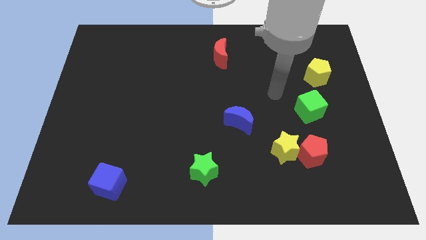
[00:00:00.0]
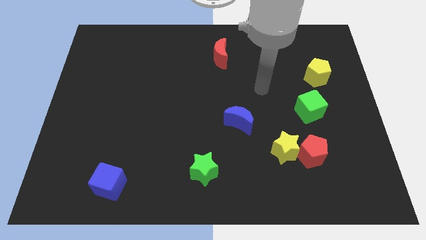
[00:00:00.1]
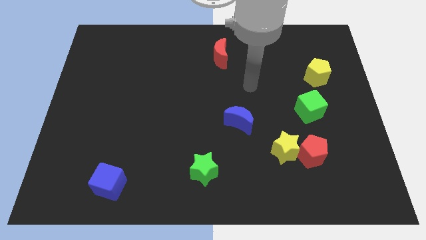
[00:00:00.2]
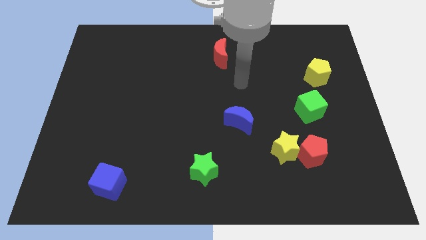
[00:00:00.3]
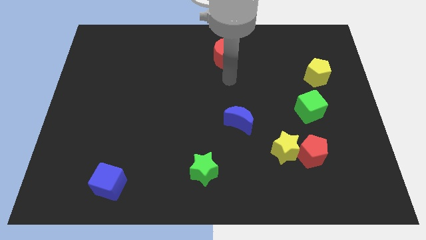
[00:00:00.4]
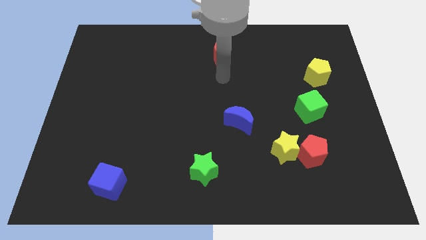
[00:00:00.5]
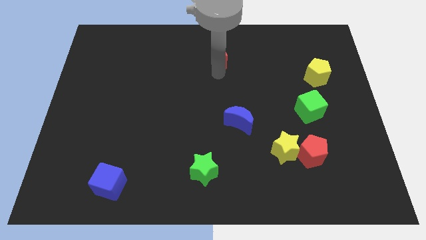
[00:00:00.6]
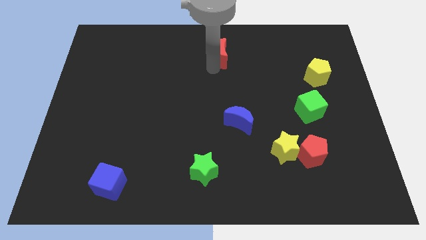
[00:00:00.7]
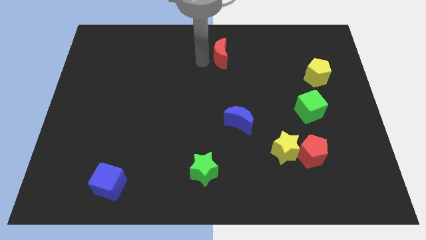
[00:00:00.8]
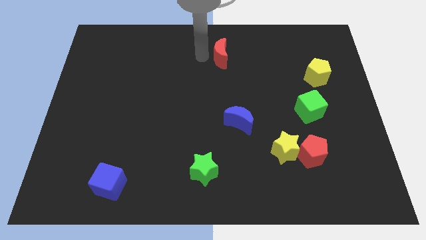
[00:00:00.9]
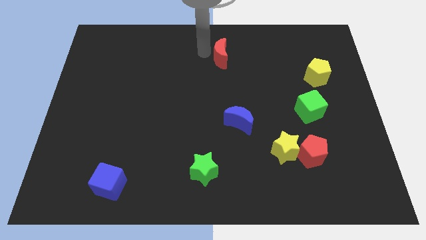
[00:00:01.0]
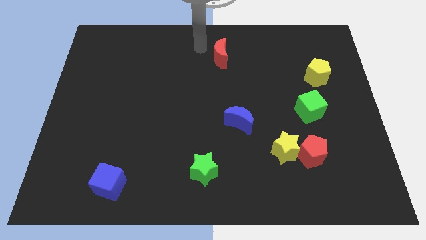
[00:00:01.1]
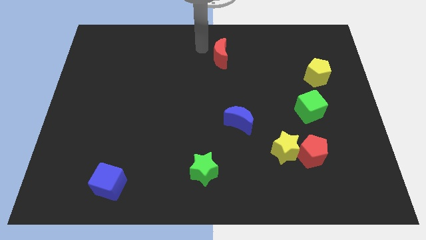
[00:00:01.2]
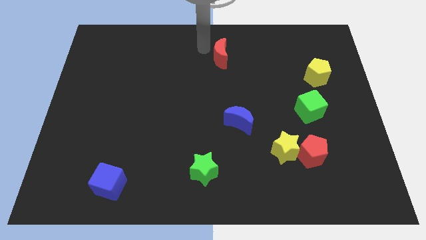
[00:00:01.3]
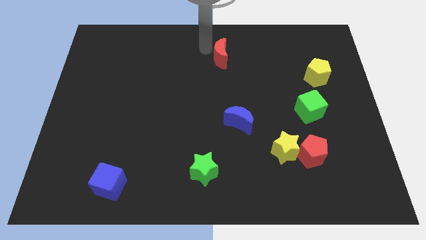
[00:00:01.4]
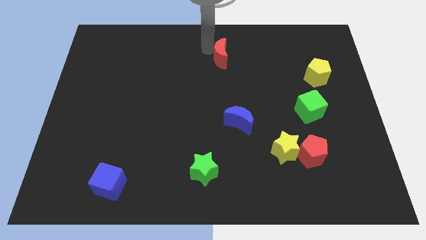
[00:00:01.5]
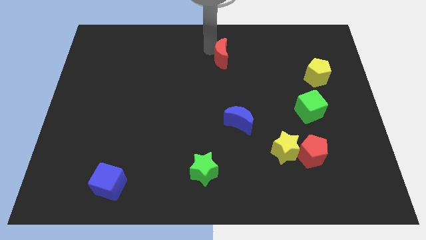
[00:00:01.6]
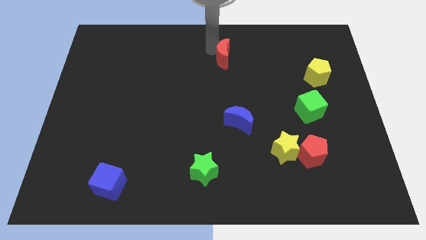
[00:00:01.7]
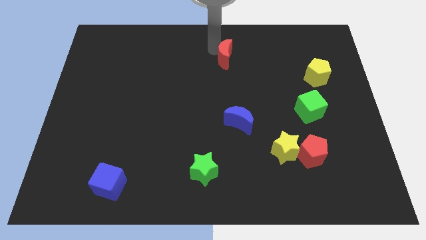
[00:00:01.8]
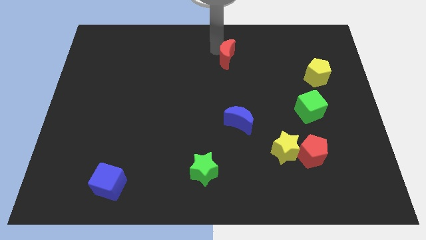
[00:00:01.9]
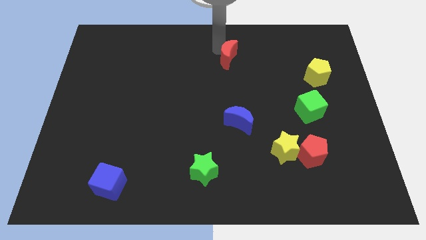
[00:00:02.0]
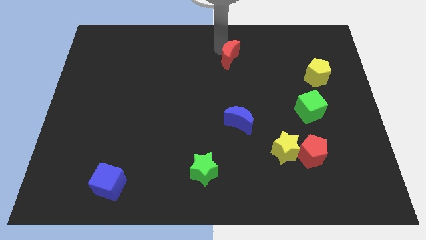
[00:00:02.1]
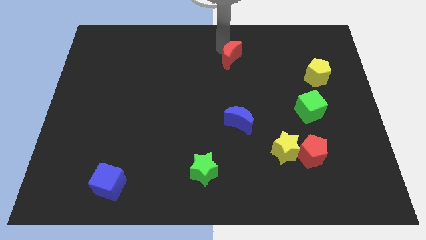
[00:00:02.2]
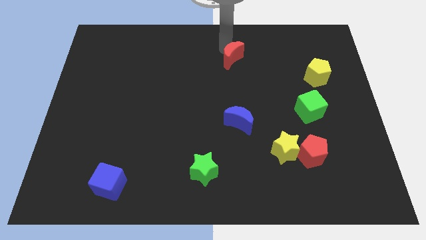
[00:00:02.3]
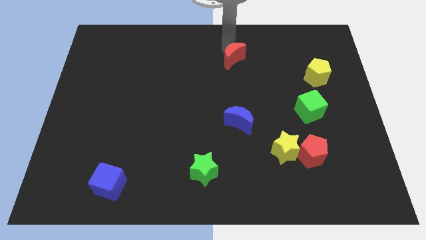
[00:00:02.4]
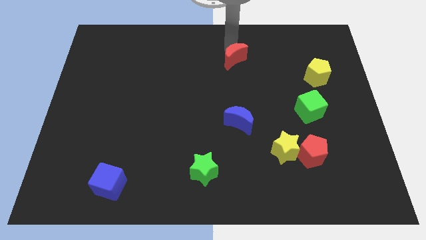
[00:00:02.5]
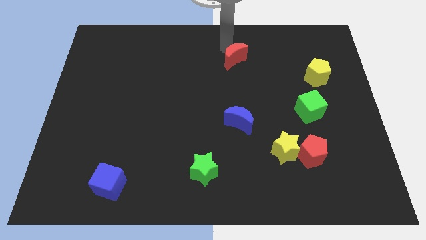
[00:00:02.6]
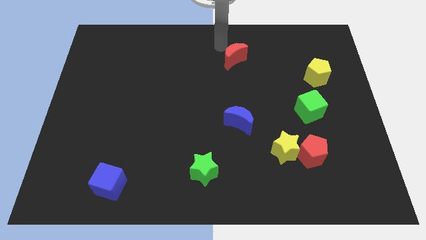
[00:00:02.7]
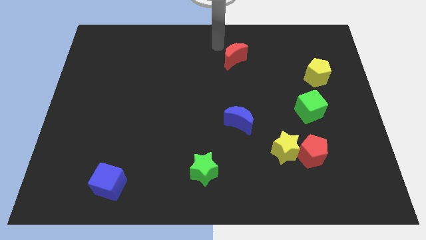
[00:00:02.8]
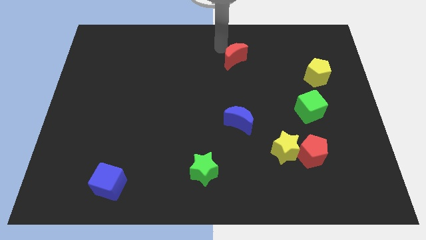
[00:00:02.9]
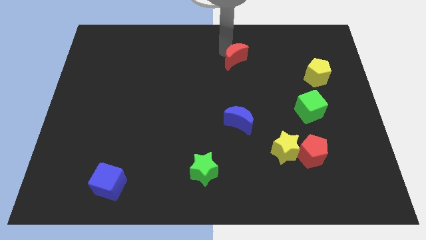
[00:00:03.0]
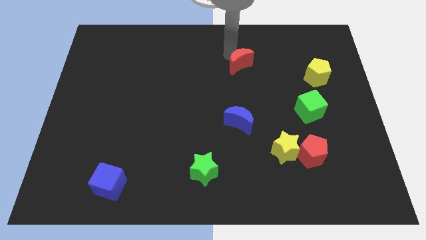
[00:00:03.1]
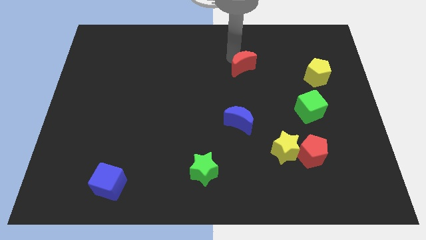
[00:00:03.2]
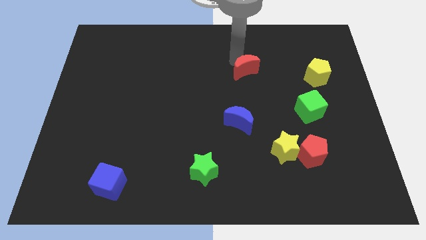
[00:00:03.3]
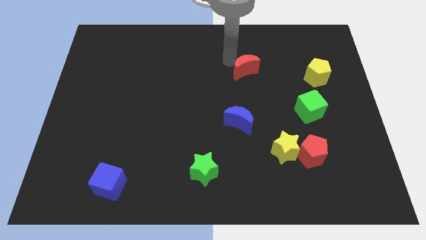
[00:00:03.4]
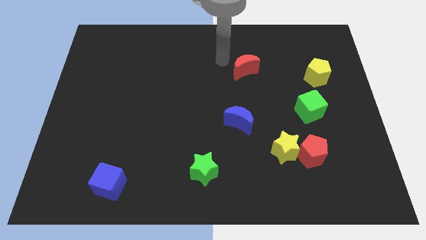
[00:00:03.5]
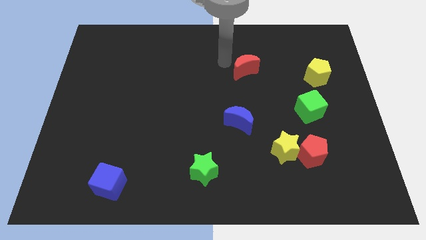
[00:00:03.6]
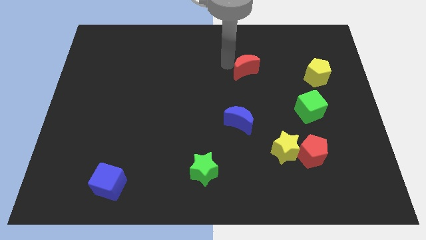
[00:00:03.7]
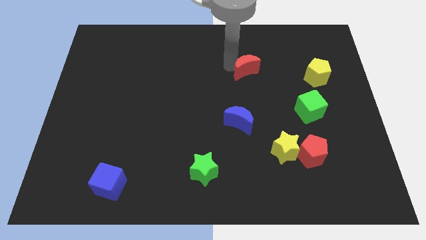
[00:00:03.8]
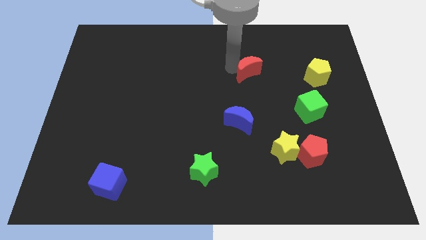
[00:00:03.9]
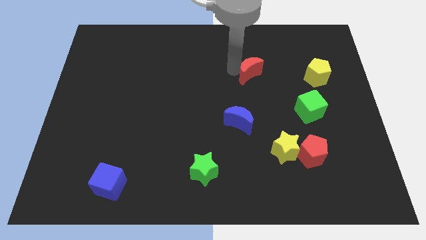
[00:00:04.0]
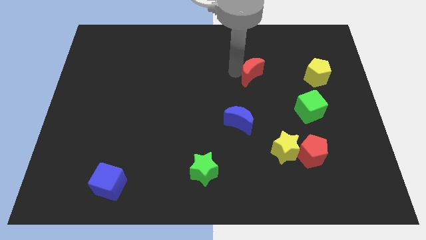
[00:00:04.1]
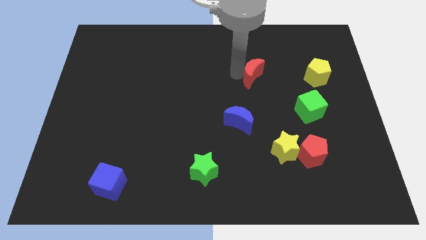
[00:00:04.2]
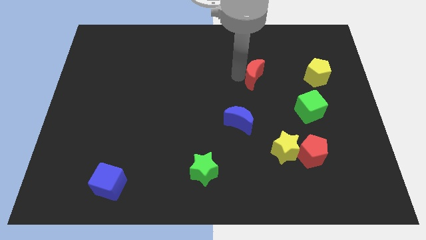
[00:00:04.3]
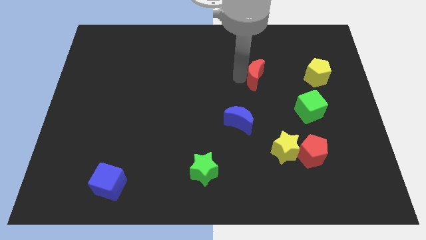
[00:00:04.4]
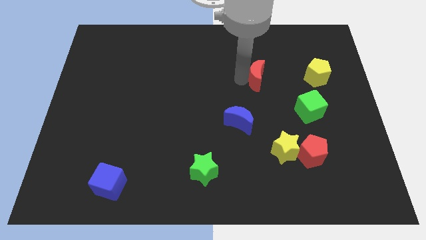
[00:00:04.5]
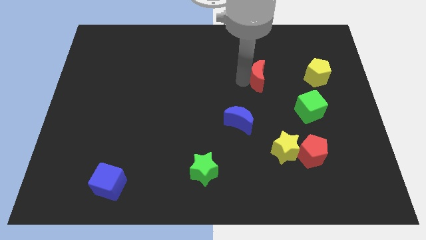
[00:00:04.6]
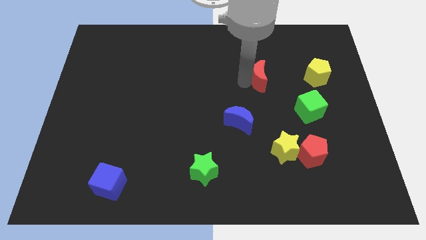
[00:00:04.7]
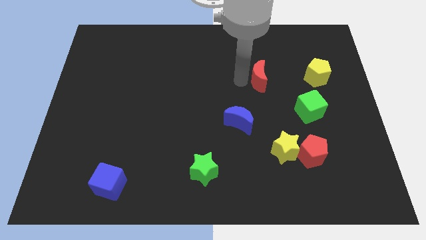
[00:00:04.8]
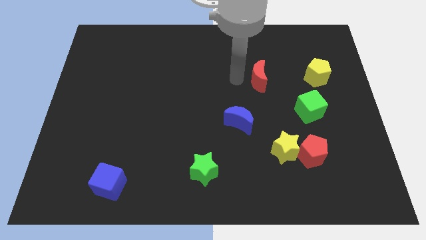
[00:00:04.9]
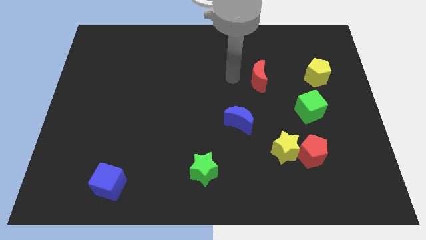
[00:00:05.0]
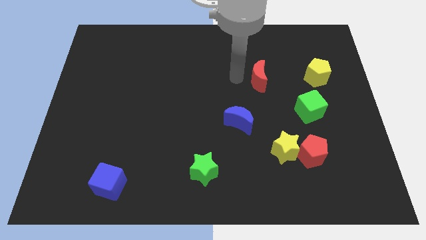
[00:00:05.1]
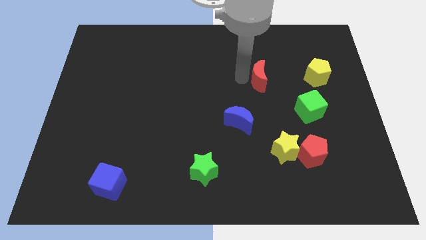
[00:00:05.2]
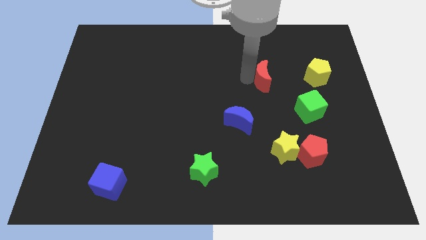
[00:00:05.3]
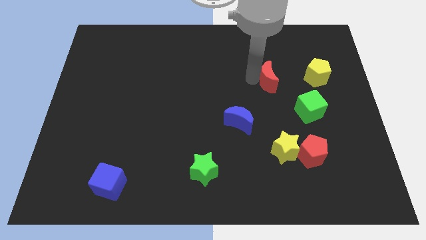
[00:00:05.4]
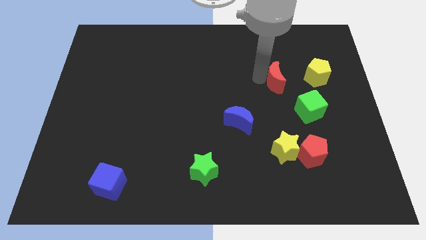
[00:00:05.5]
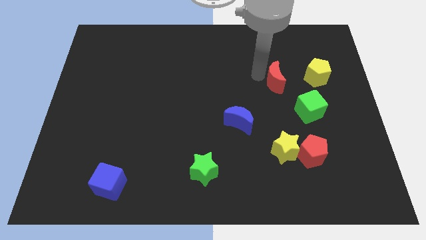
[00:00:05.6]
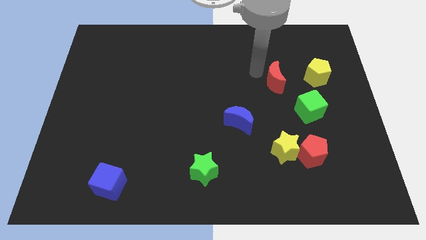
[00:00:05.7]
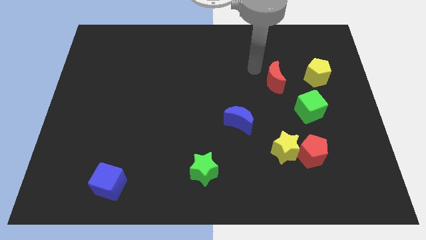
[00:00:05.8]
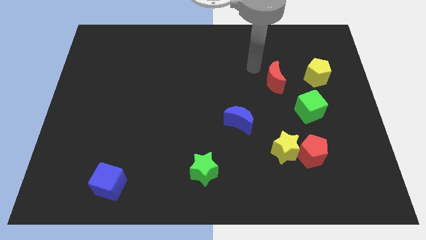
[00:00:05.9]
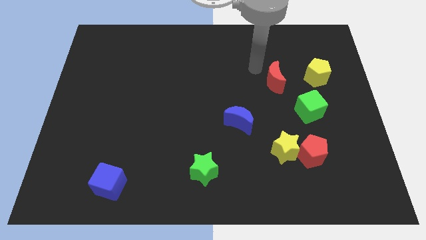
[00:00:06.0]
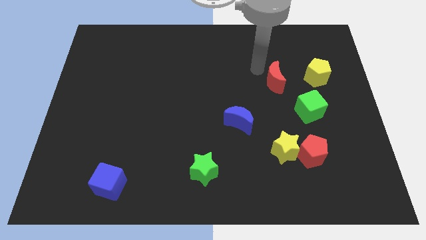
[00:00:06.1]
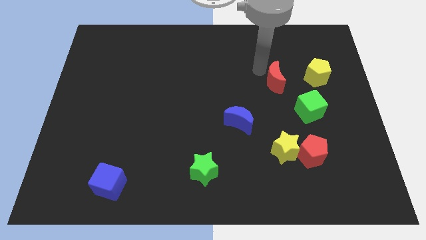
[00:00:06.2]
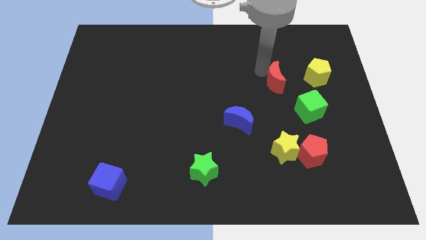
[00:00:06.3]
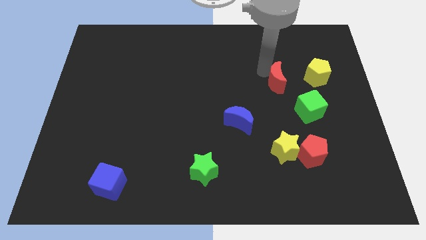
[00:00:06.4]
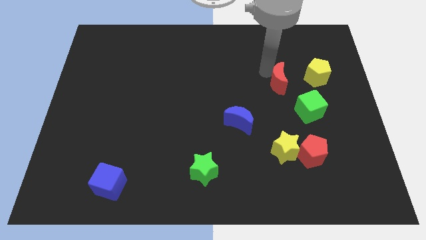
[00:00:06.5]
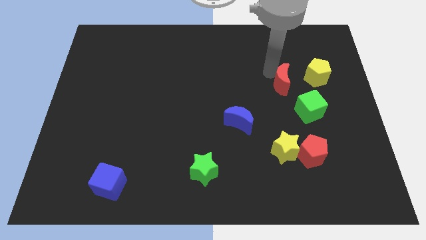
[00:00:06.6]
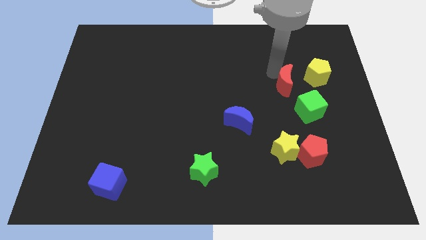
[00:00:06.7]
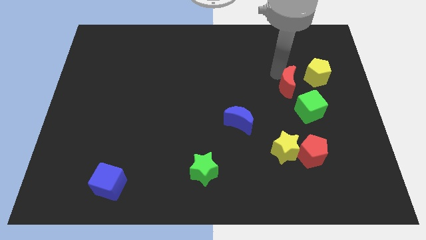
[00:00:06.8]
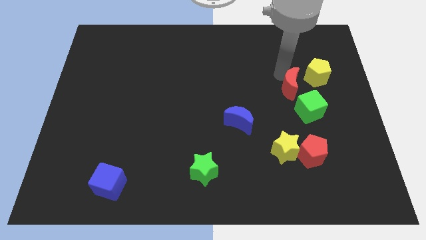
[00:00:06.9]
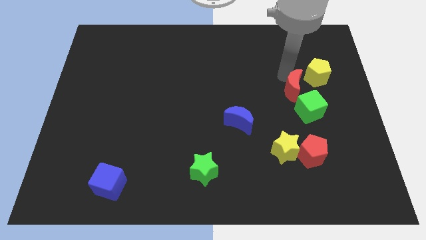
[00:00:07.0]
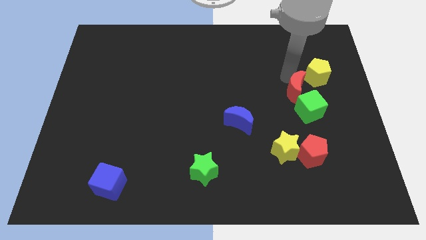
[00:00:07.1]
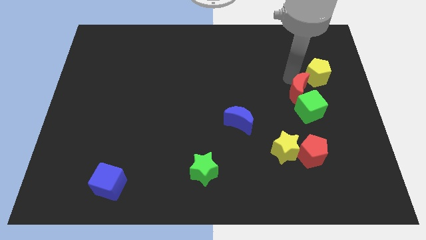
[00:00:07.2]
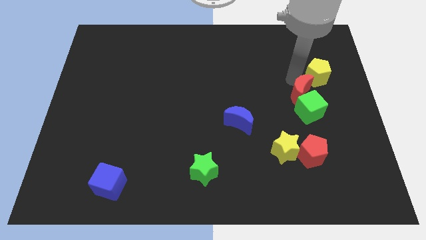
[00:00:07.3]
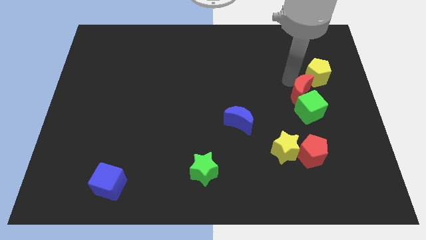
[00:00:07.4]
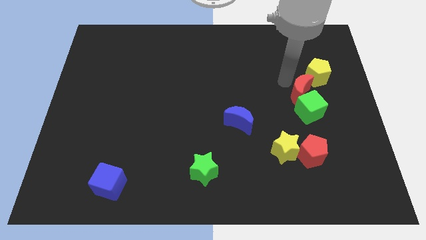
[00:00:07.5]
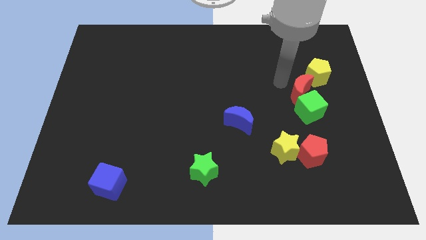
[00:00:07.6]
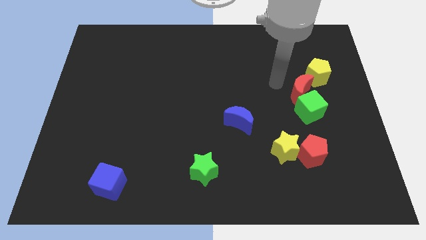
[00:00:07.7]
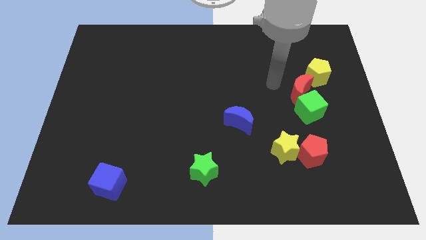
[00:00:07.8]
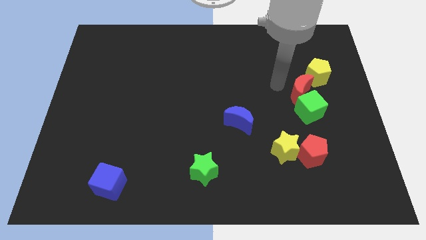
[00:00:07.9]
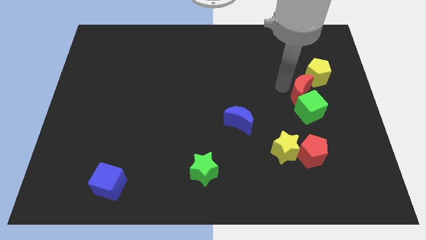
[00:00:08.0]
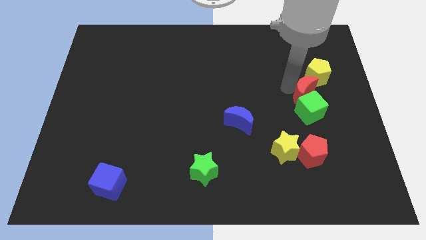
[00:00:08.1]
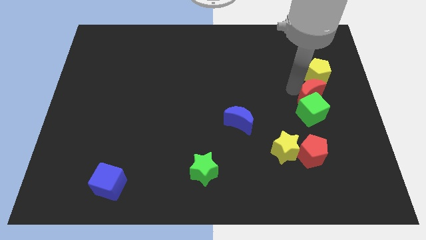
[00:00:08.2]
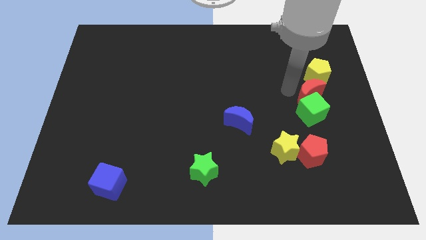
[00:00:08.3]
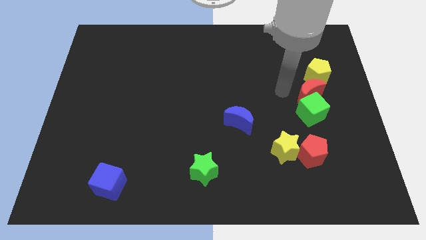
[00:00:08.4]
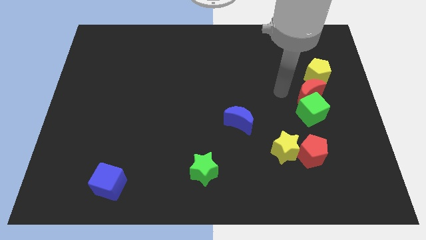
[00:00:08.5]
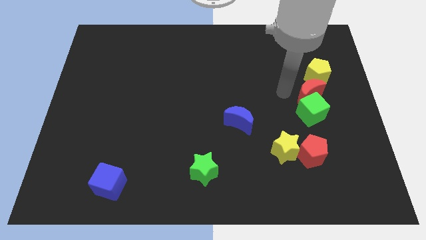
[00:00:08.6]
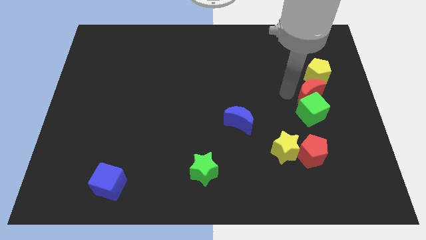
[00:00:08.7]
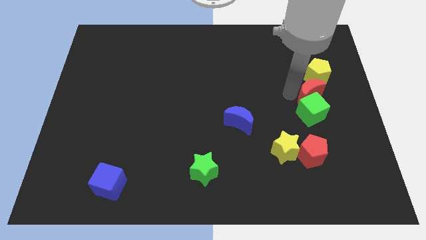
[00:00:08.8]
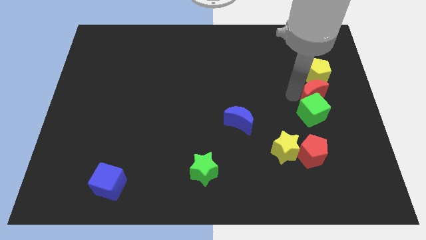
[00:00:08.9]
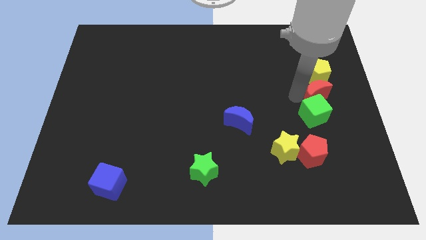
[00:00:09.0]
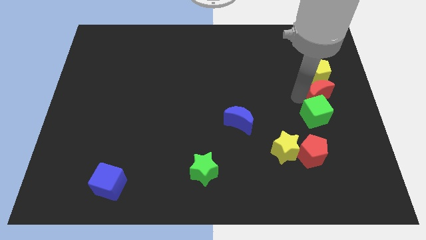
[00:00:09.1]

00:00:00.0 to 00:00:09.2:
move the red moon to the center right
